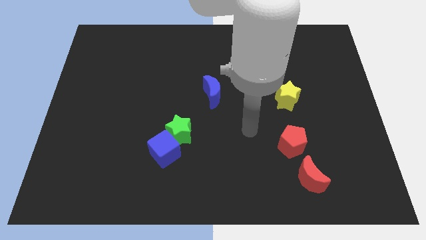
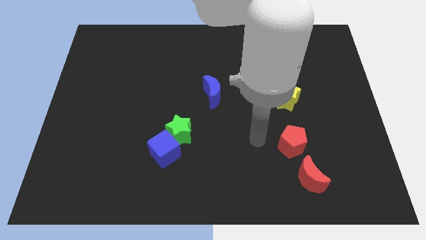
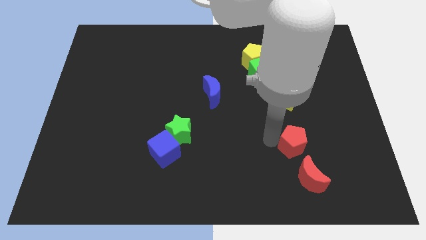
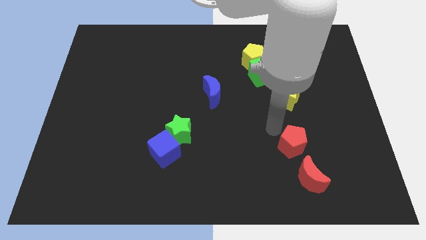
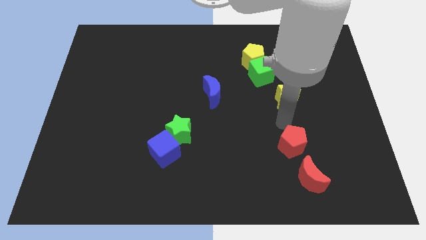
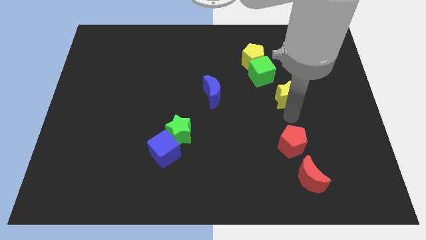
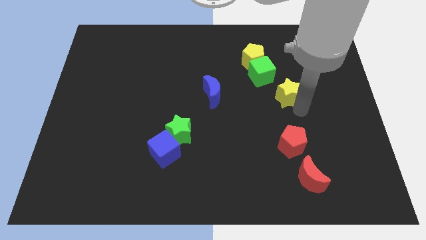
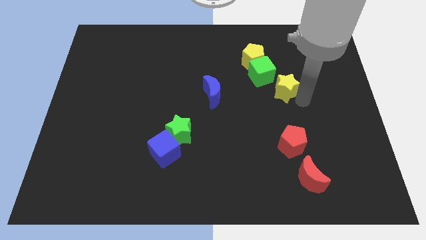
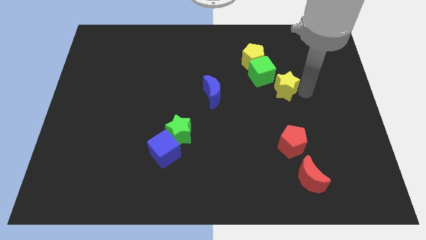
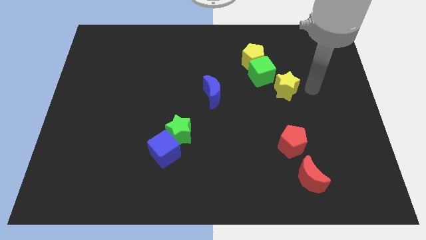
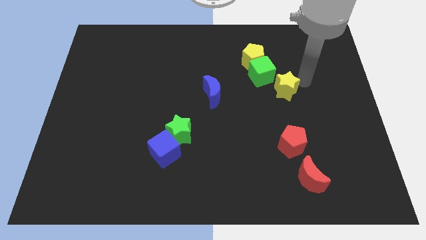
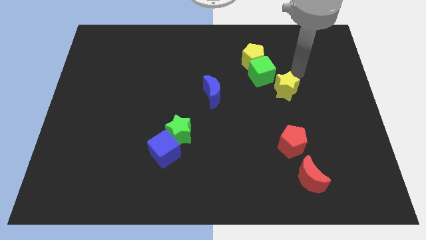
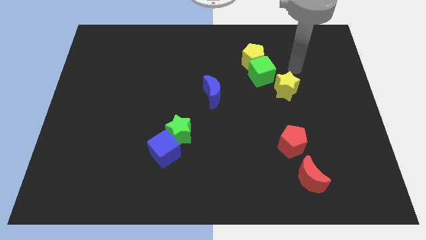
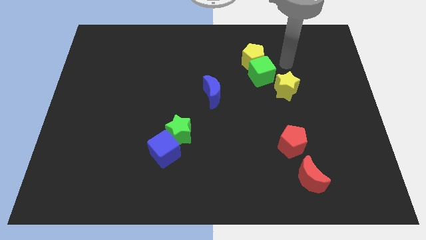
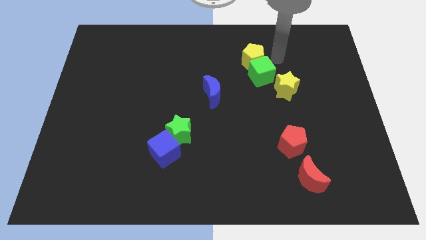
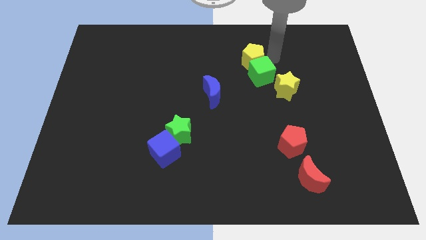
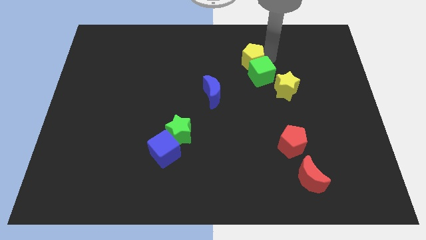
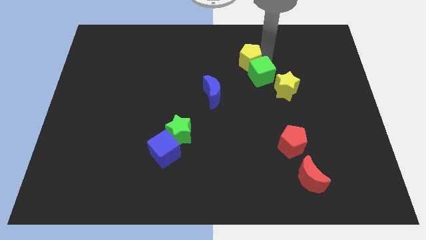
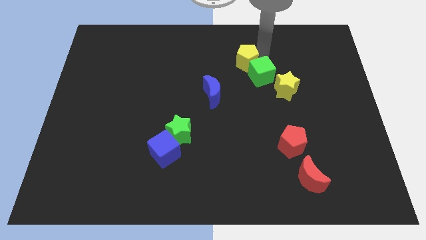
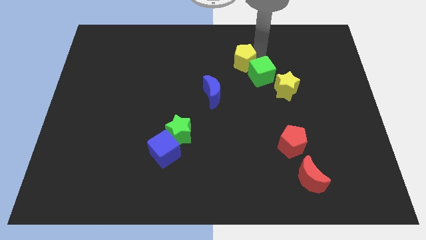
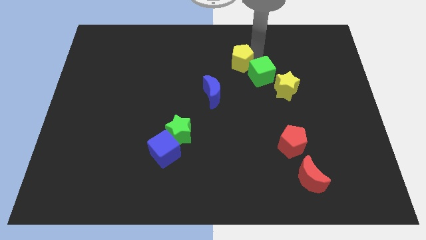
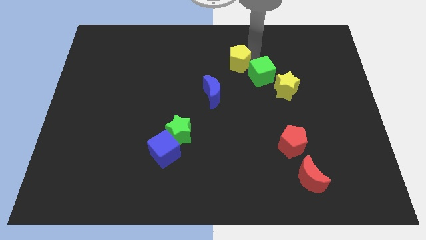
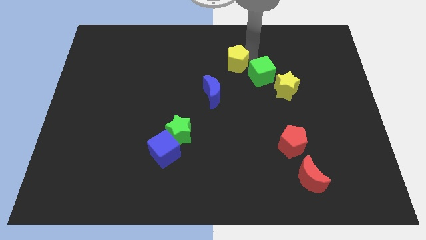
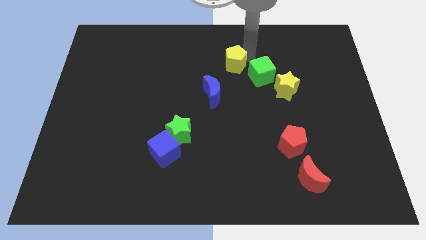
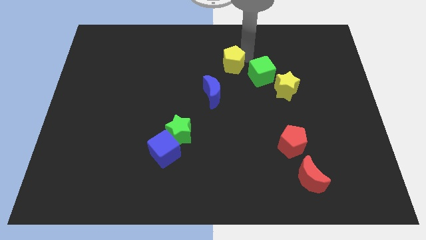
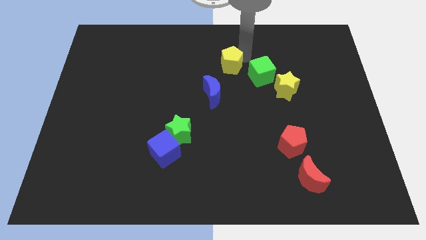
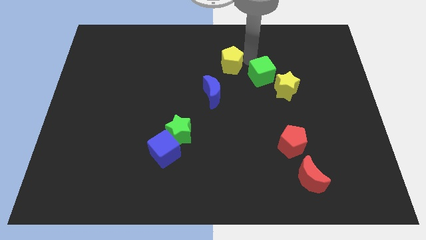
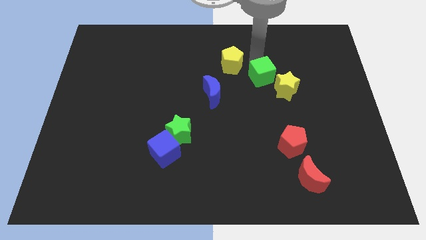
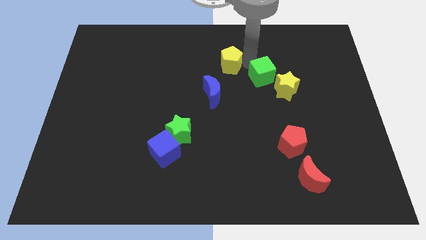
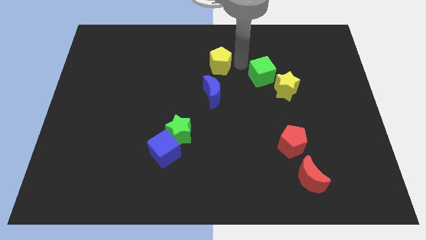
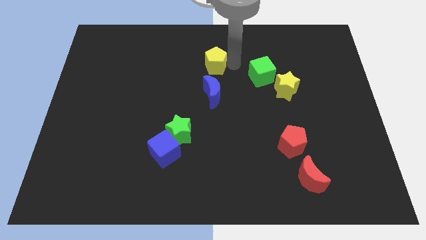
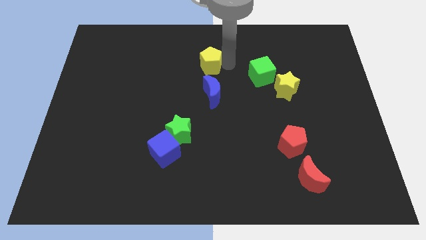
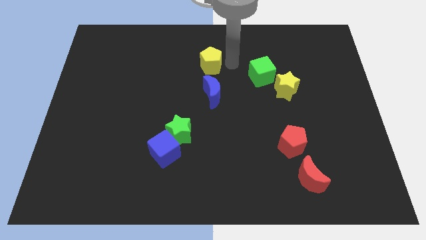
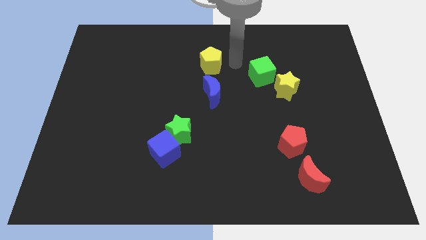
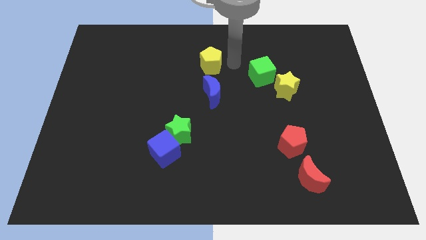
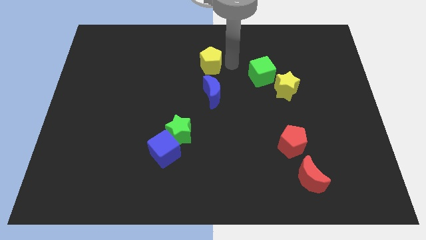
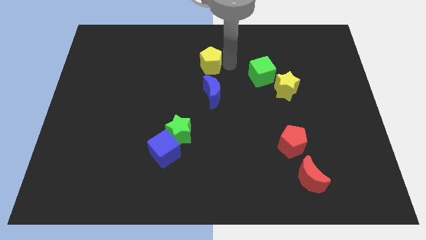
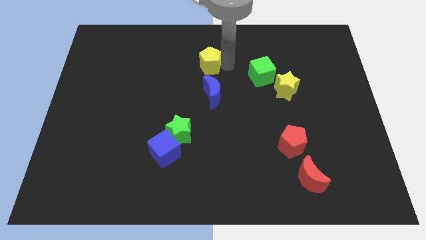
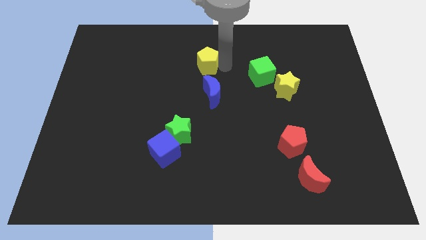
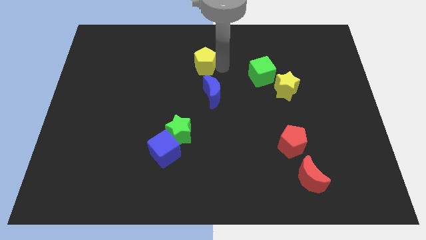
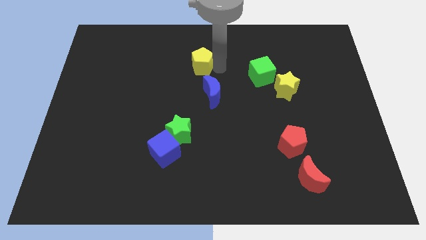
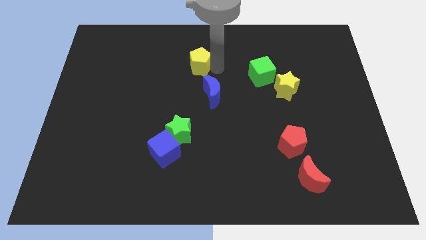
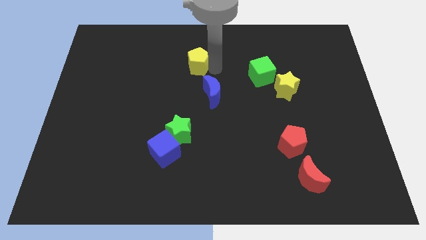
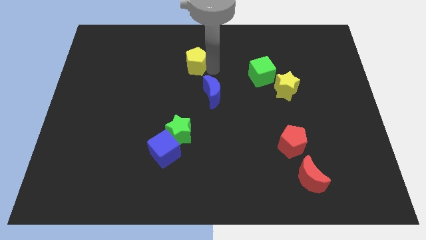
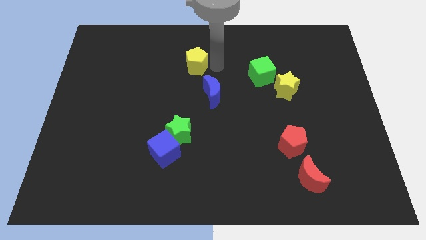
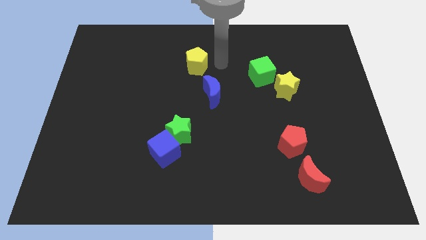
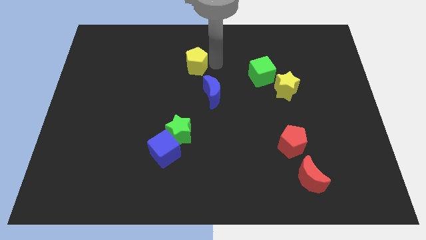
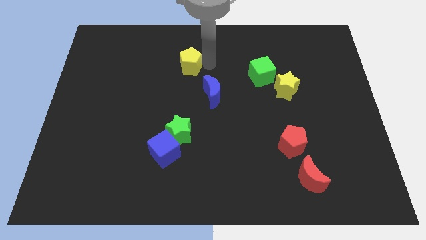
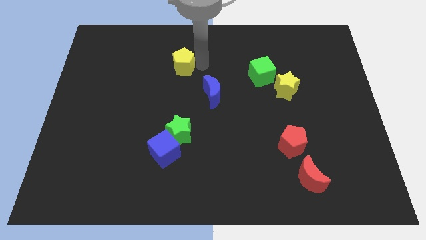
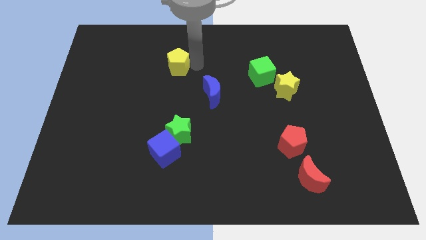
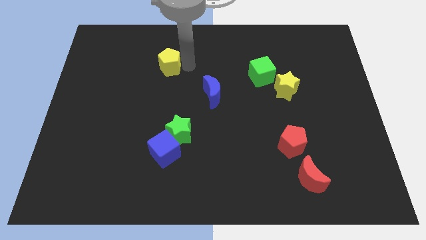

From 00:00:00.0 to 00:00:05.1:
move the yellow pentagon left

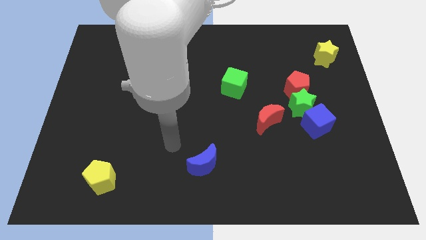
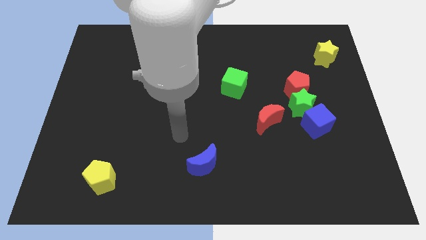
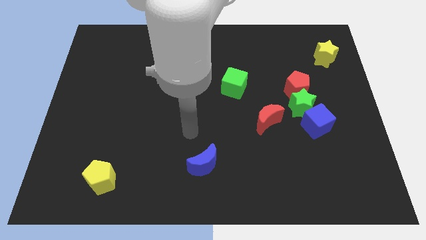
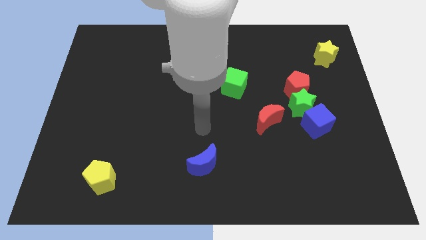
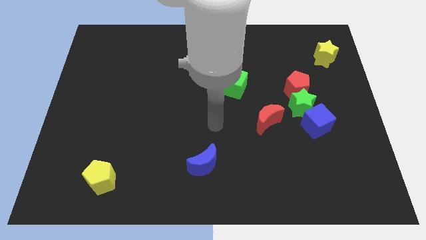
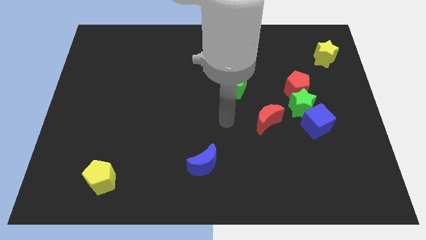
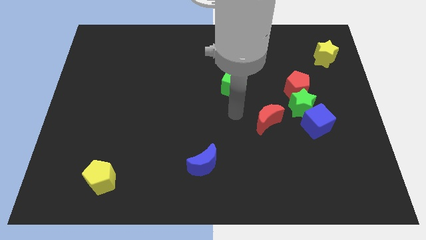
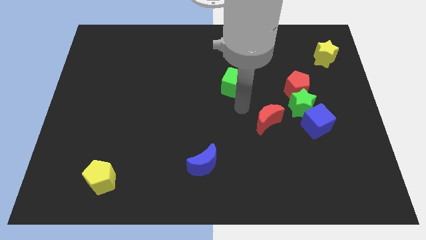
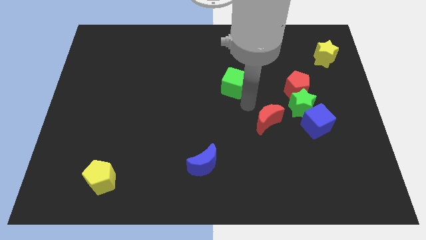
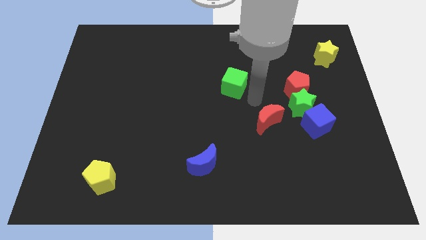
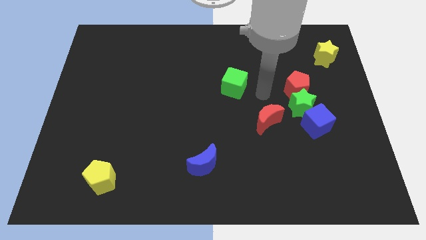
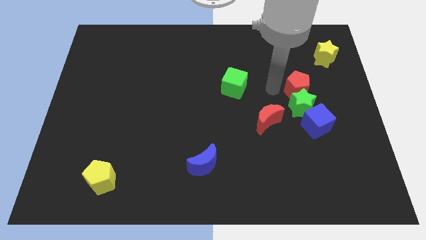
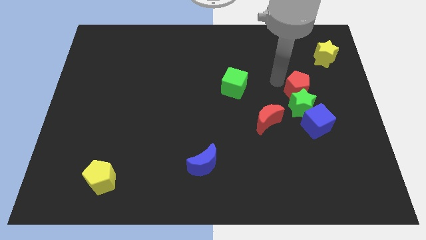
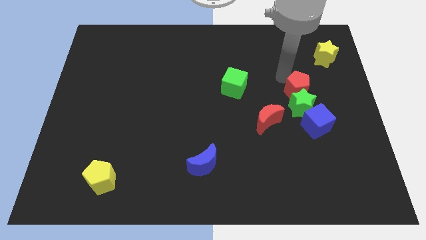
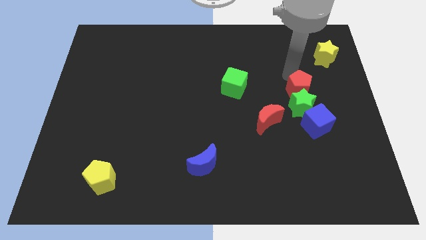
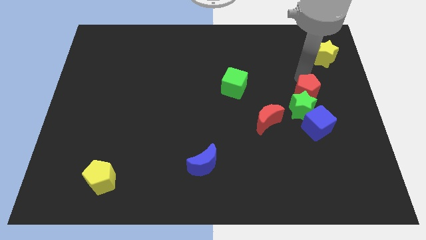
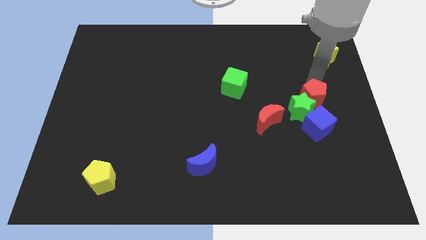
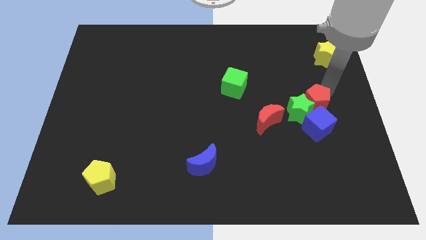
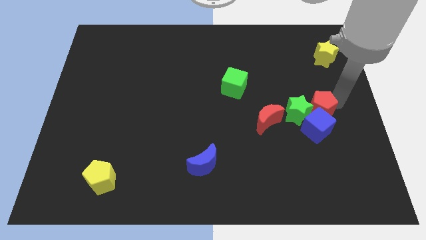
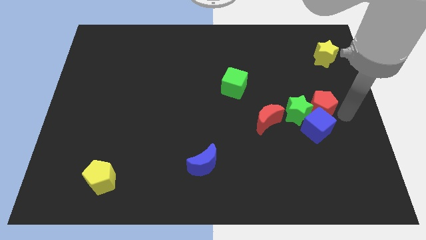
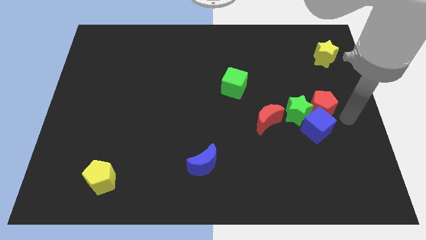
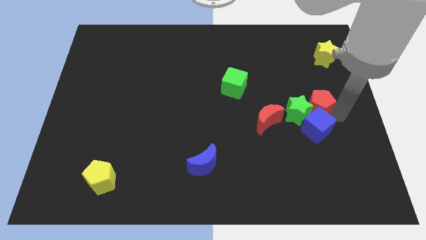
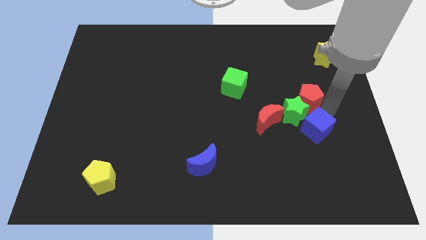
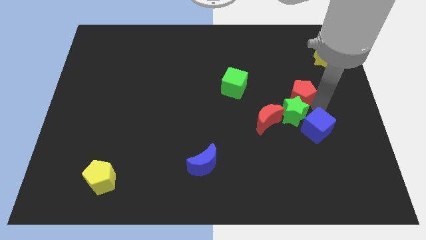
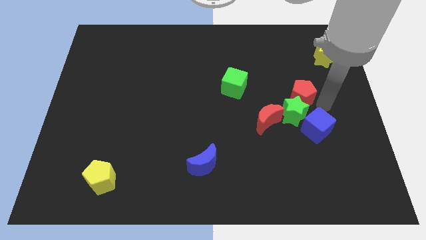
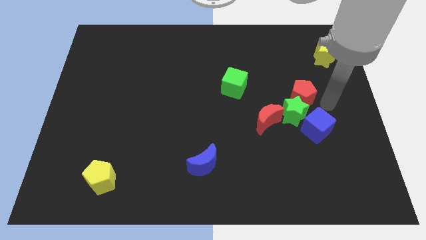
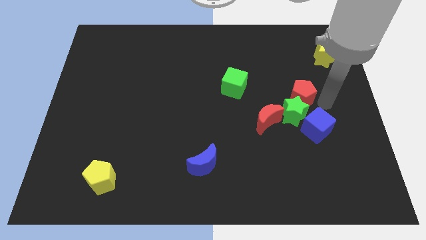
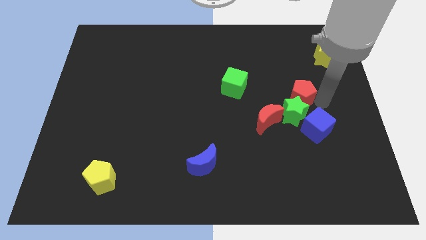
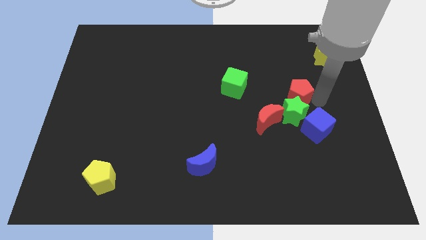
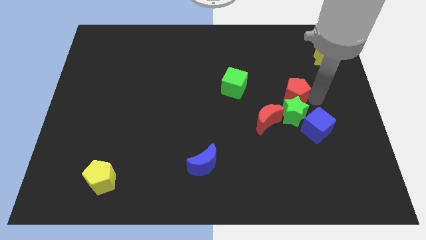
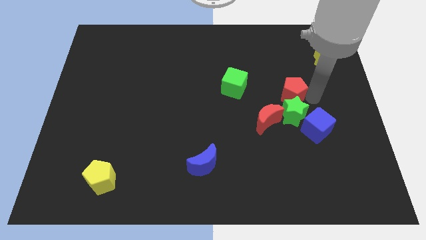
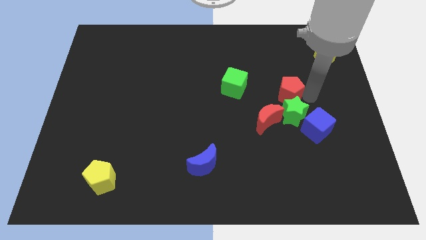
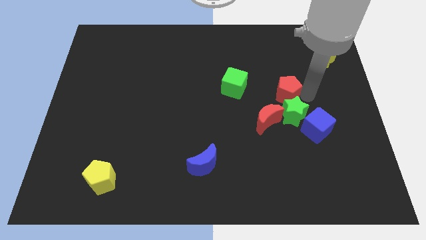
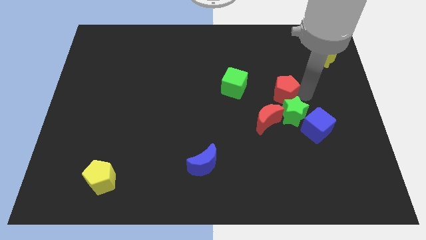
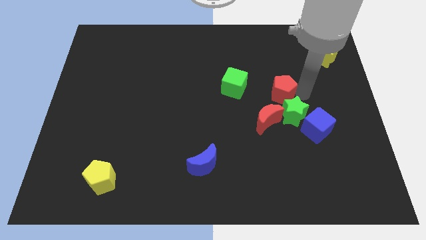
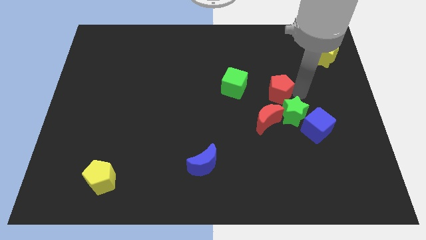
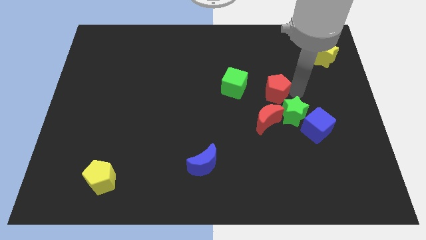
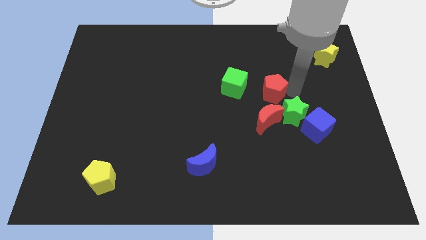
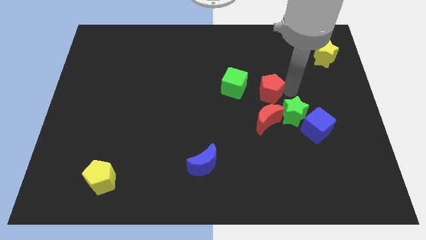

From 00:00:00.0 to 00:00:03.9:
slightly push the red pentagon to the left
